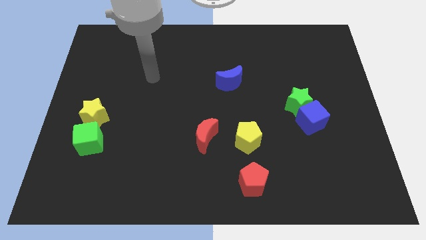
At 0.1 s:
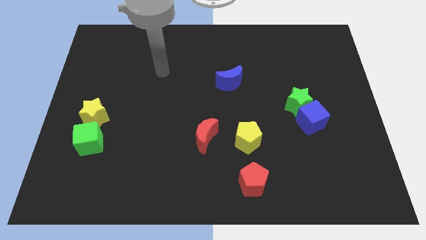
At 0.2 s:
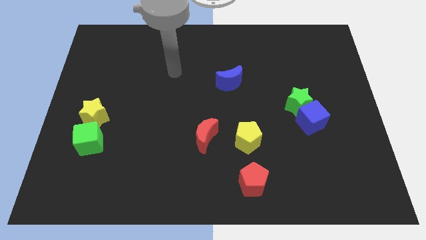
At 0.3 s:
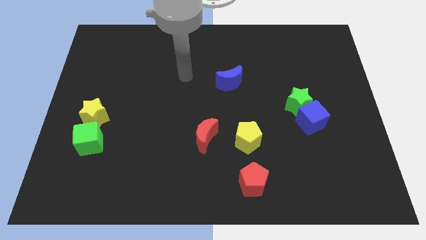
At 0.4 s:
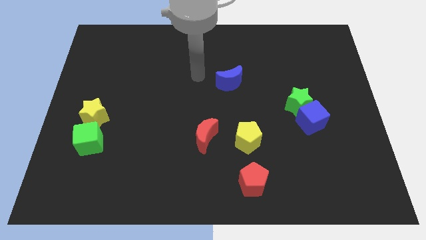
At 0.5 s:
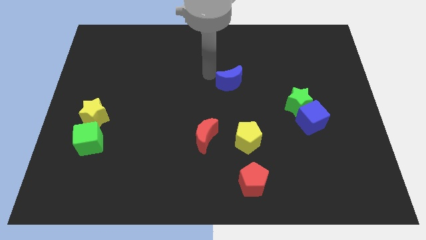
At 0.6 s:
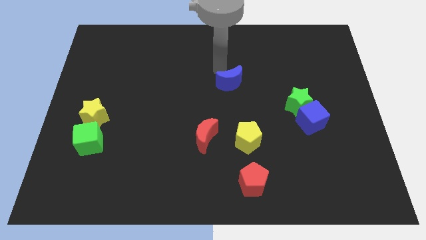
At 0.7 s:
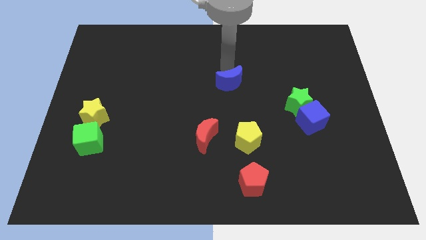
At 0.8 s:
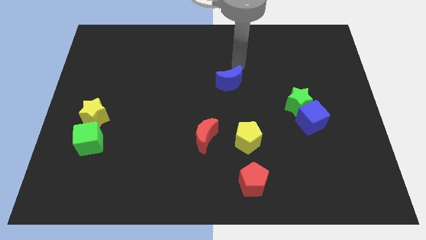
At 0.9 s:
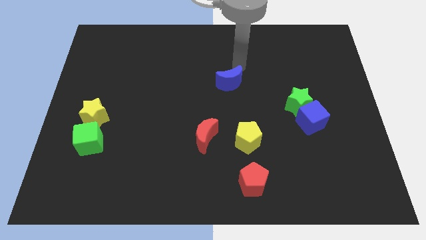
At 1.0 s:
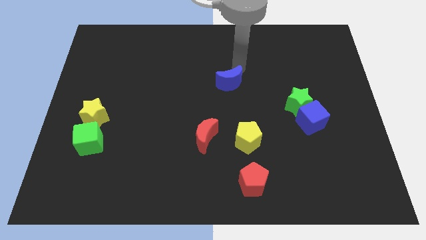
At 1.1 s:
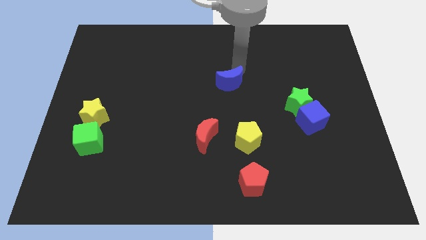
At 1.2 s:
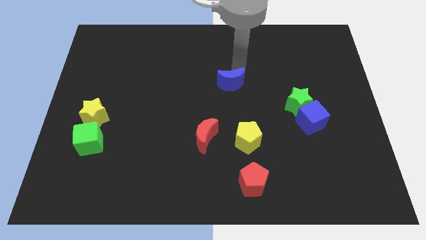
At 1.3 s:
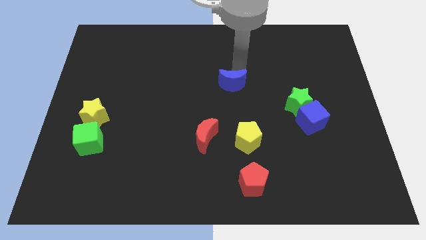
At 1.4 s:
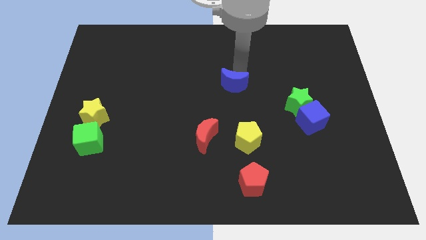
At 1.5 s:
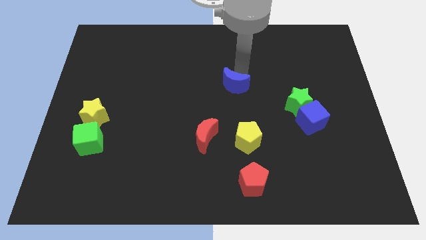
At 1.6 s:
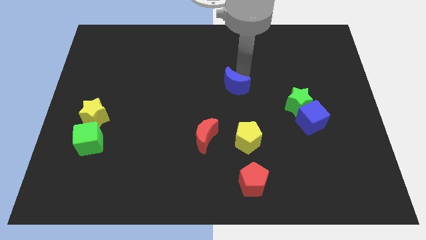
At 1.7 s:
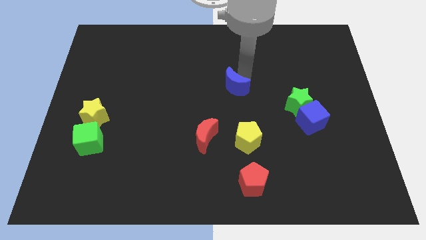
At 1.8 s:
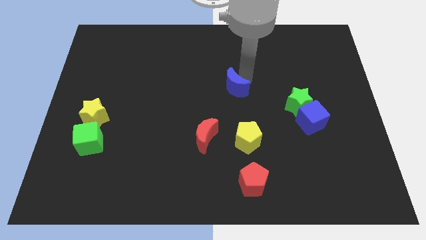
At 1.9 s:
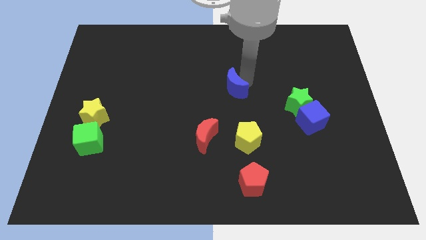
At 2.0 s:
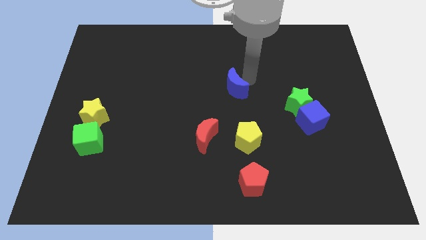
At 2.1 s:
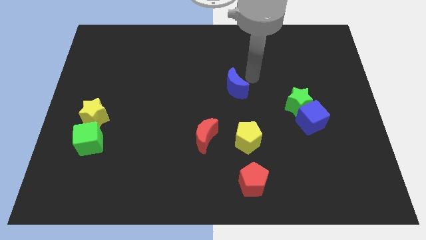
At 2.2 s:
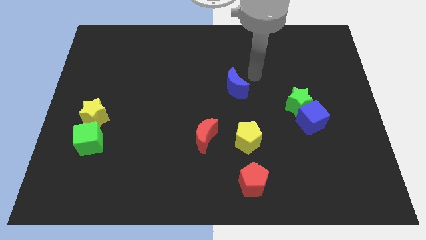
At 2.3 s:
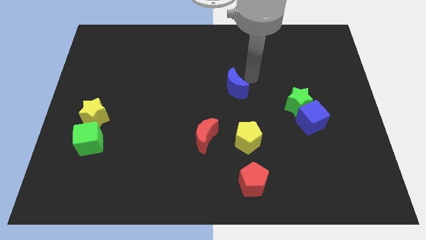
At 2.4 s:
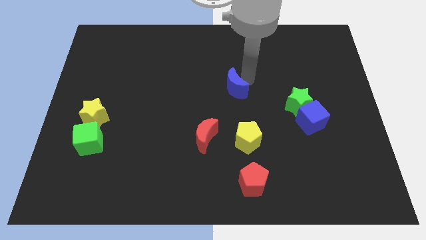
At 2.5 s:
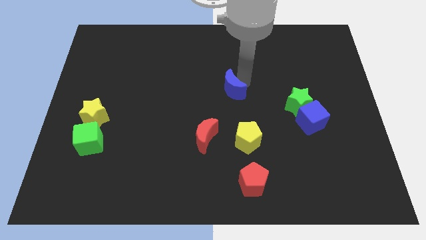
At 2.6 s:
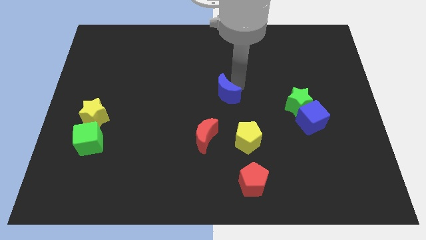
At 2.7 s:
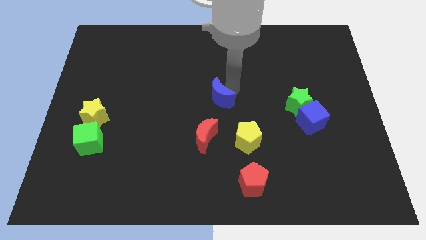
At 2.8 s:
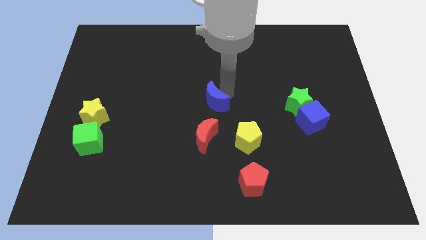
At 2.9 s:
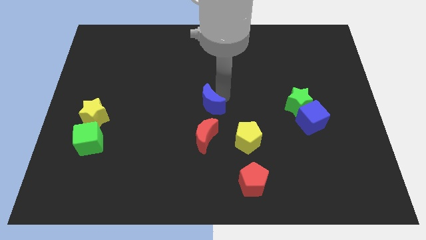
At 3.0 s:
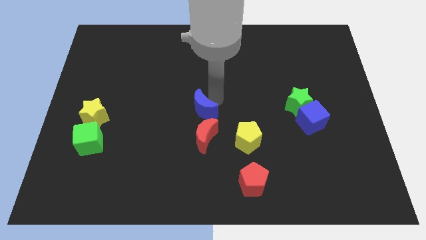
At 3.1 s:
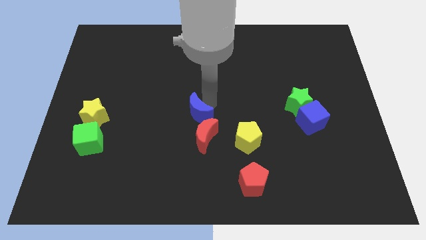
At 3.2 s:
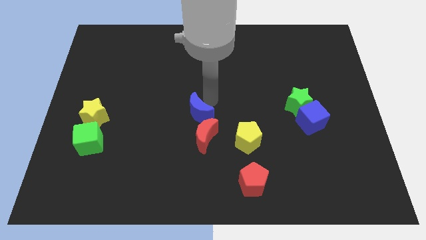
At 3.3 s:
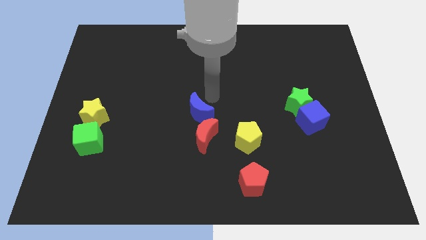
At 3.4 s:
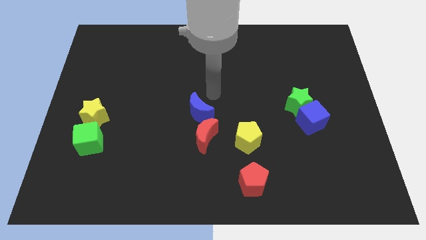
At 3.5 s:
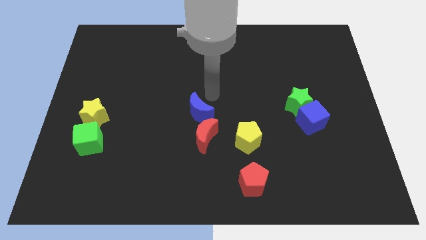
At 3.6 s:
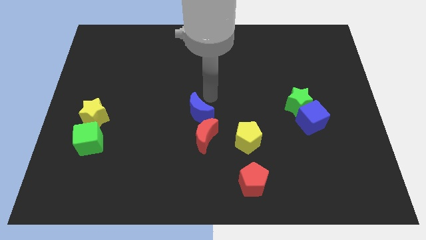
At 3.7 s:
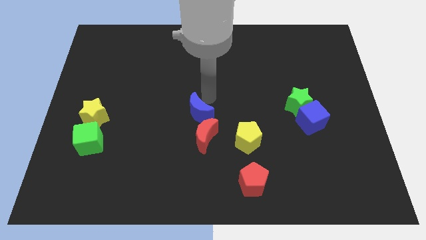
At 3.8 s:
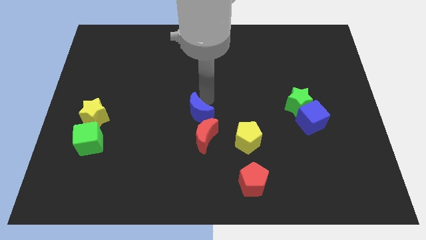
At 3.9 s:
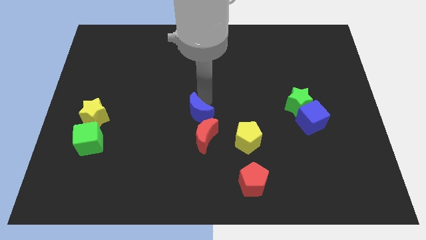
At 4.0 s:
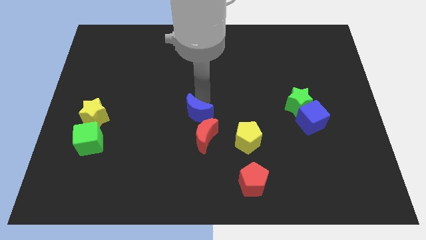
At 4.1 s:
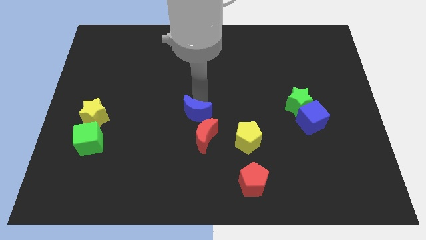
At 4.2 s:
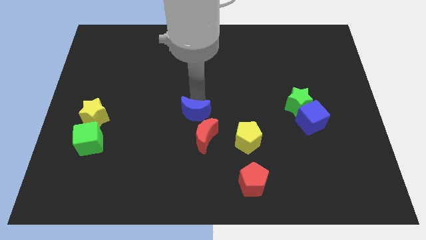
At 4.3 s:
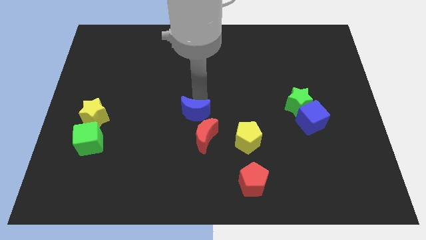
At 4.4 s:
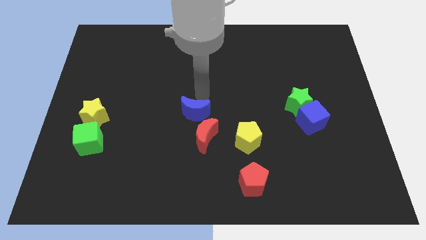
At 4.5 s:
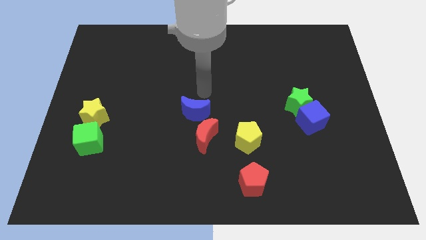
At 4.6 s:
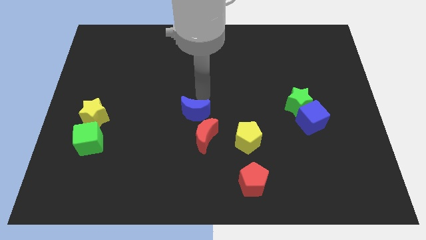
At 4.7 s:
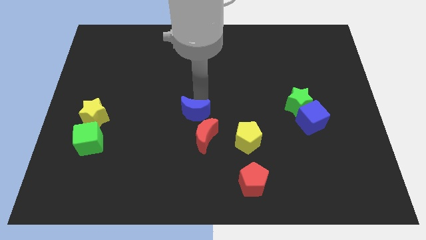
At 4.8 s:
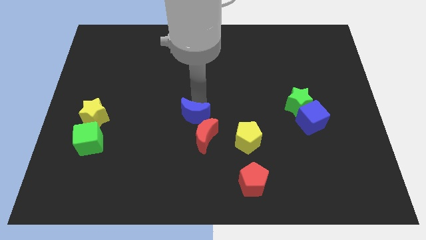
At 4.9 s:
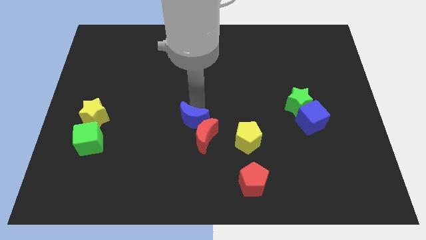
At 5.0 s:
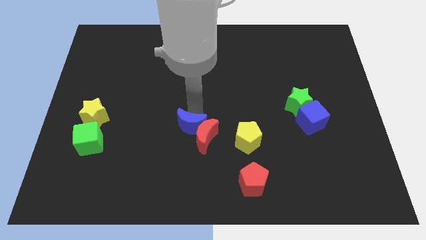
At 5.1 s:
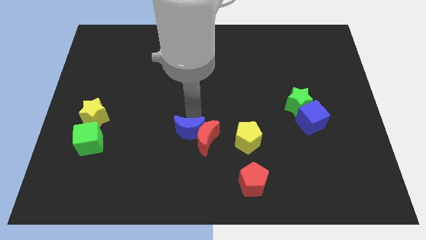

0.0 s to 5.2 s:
put the blue moon diagonally down and to the left of the red moon

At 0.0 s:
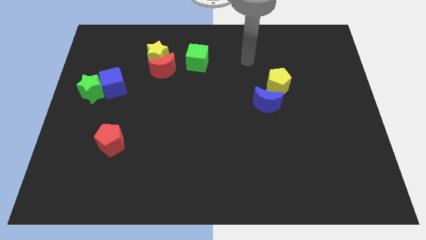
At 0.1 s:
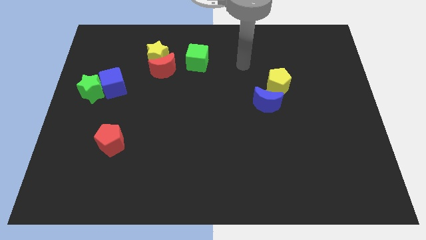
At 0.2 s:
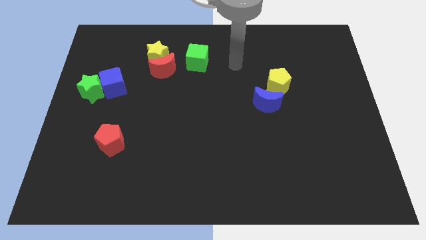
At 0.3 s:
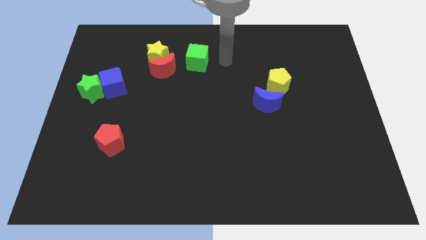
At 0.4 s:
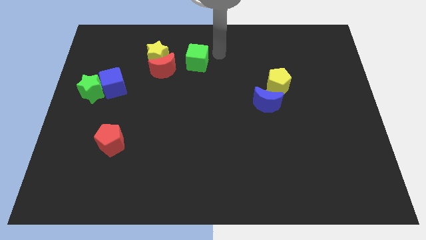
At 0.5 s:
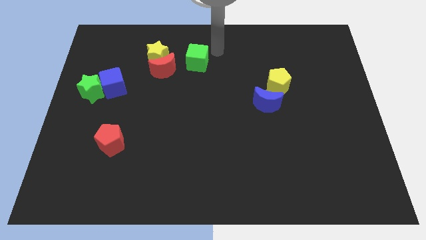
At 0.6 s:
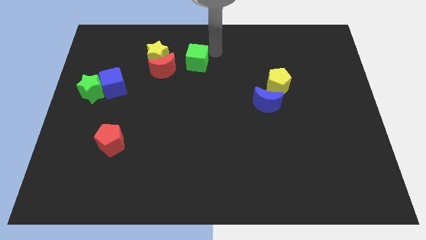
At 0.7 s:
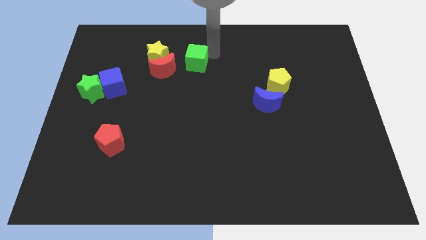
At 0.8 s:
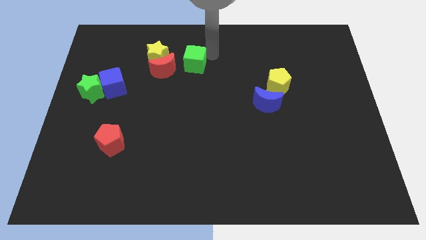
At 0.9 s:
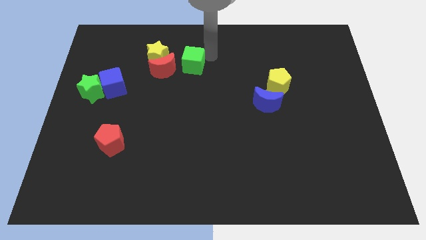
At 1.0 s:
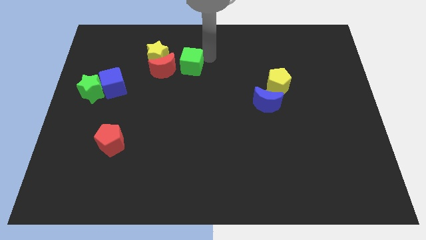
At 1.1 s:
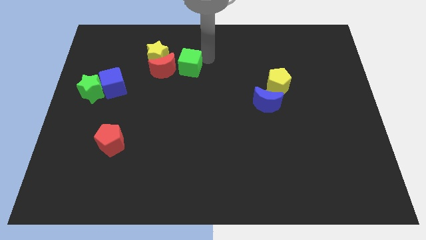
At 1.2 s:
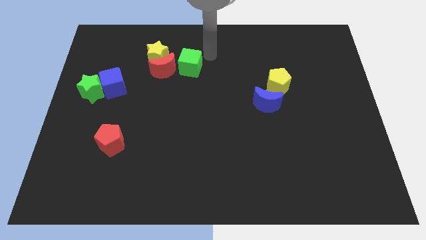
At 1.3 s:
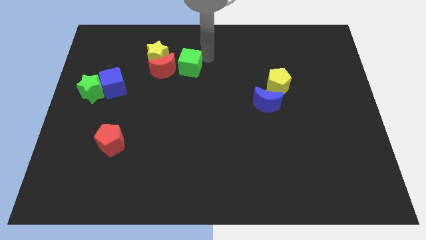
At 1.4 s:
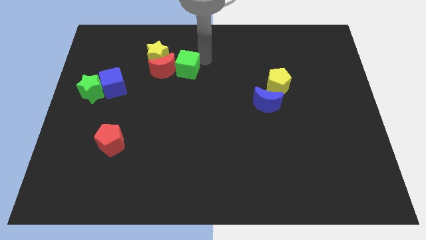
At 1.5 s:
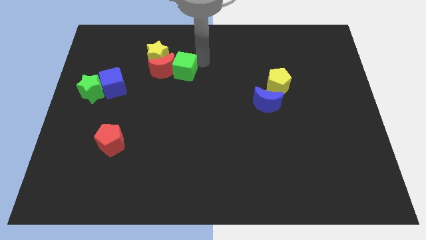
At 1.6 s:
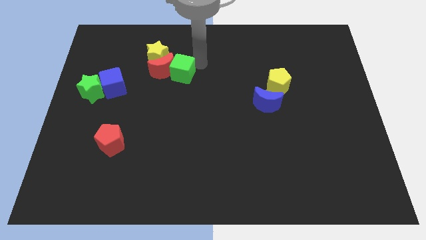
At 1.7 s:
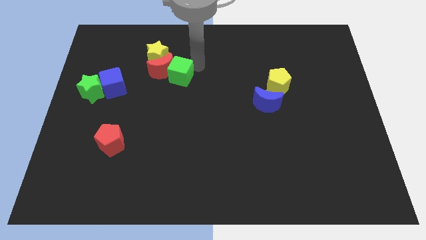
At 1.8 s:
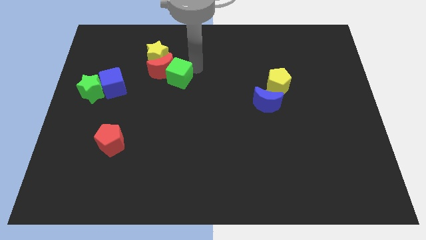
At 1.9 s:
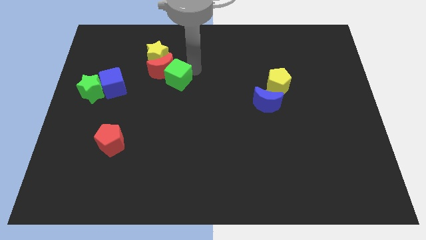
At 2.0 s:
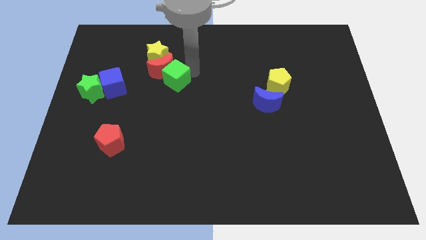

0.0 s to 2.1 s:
put the green cube to the right of the blue cube
